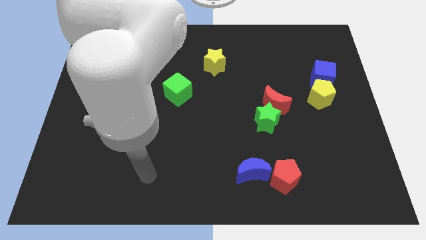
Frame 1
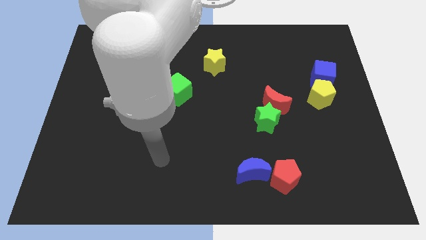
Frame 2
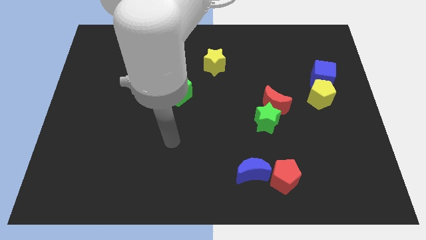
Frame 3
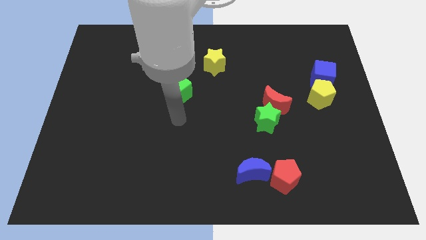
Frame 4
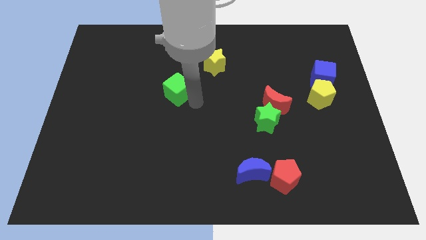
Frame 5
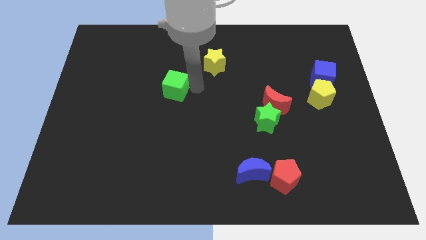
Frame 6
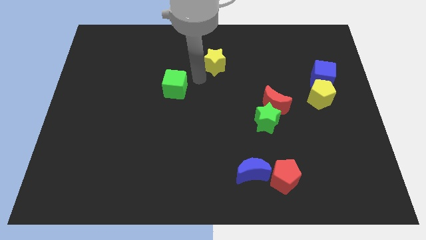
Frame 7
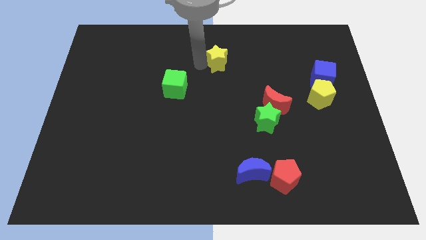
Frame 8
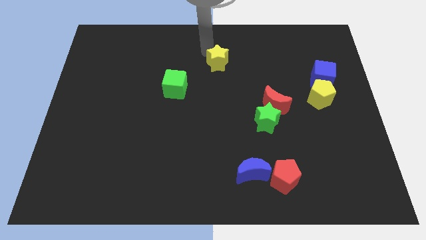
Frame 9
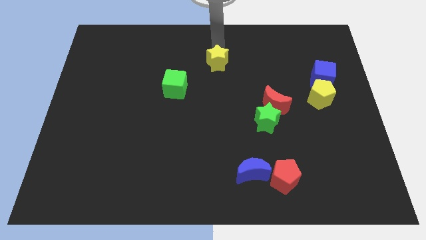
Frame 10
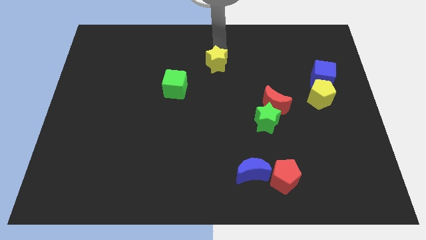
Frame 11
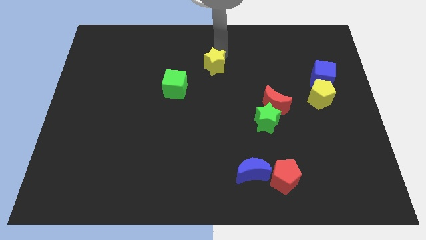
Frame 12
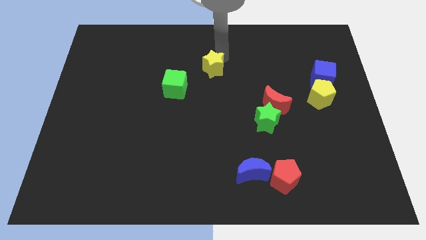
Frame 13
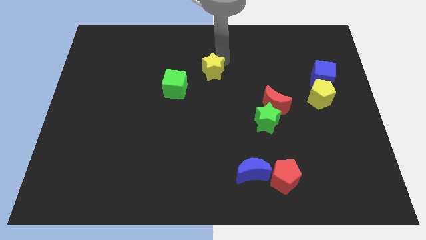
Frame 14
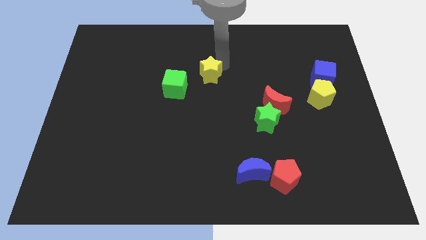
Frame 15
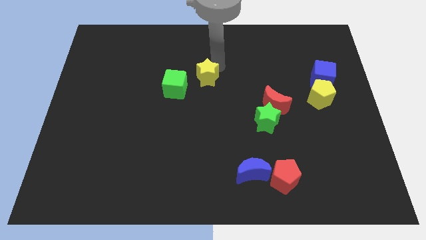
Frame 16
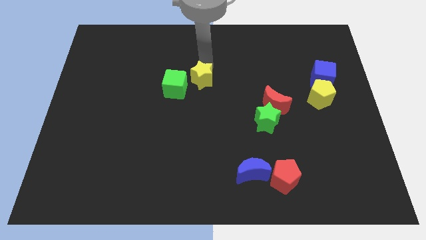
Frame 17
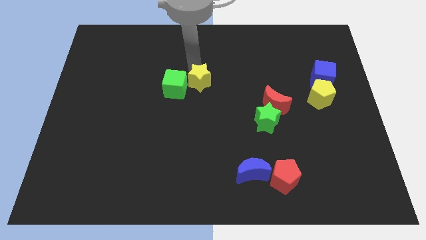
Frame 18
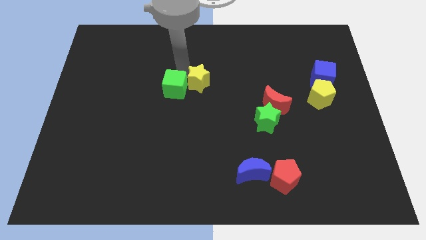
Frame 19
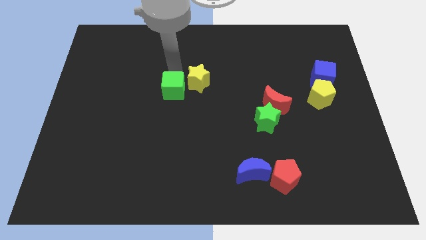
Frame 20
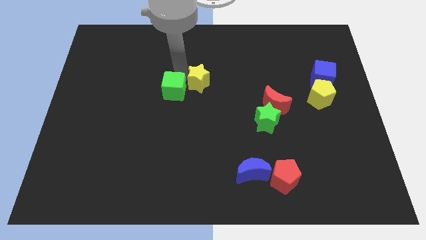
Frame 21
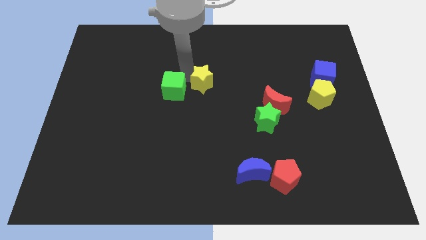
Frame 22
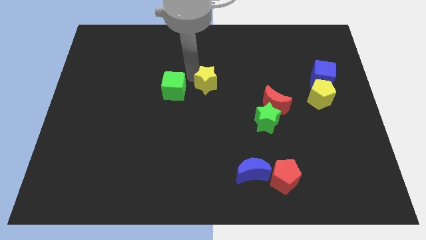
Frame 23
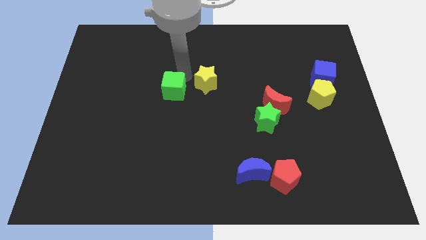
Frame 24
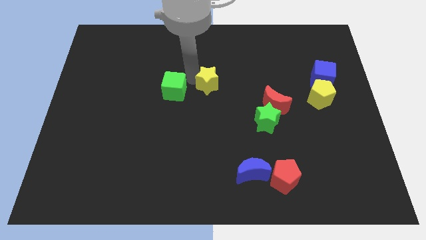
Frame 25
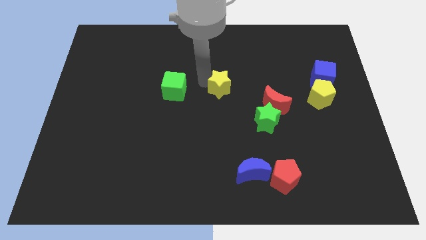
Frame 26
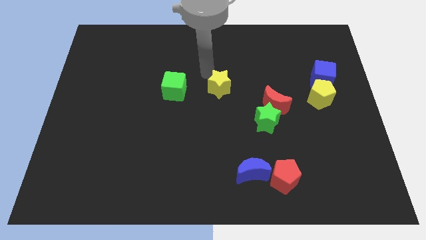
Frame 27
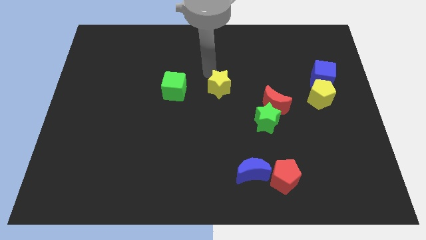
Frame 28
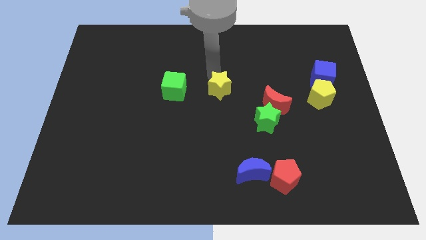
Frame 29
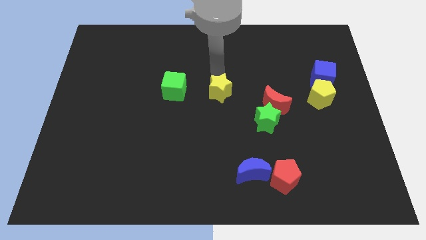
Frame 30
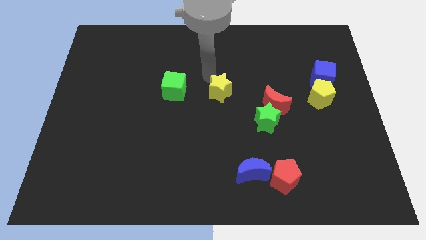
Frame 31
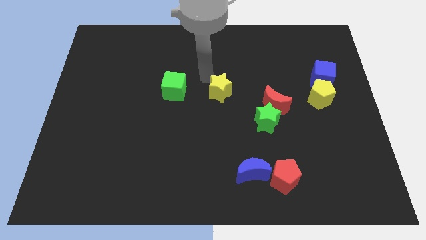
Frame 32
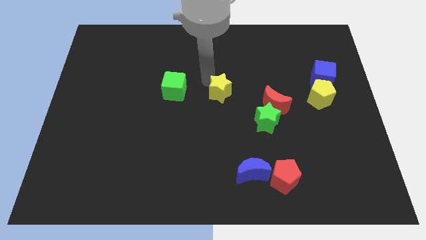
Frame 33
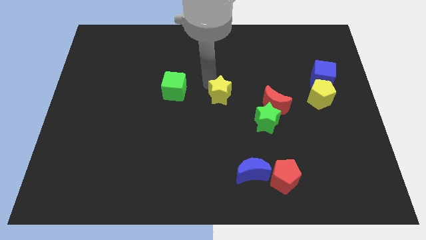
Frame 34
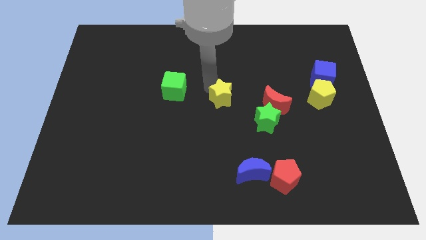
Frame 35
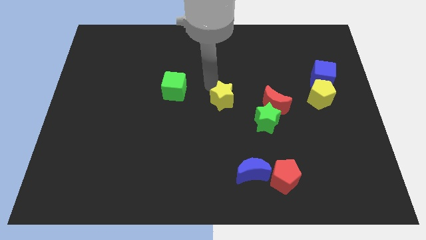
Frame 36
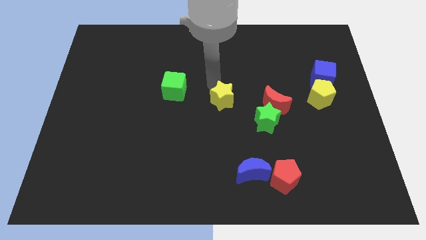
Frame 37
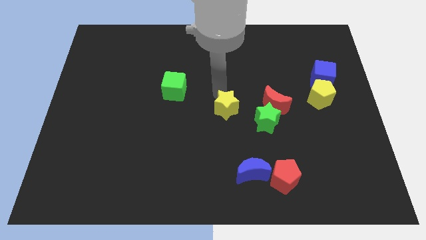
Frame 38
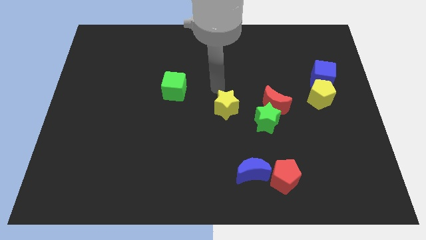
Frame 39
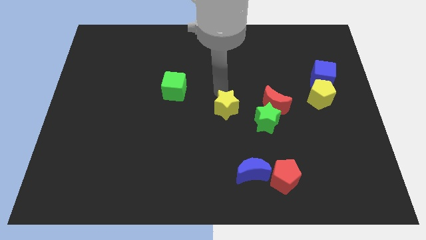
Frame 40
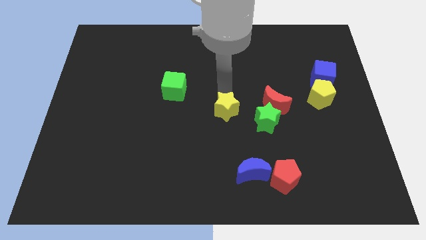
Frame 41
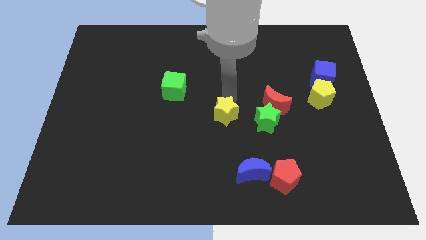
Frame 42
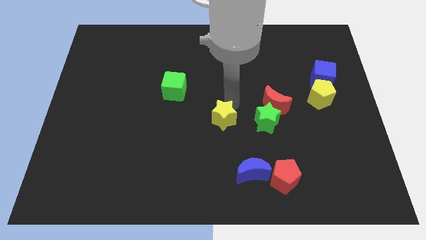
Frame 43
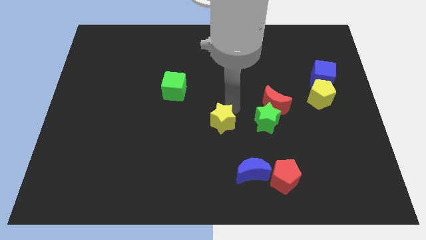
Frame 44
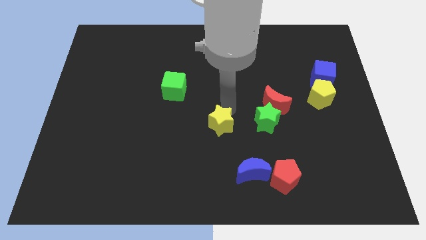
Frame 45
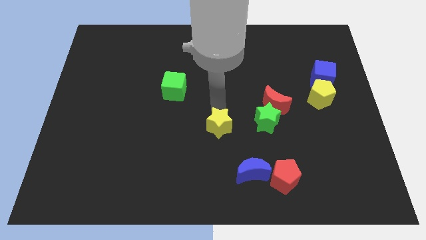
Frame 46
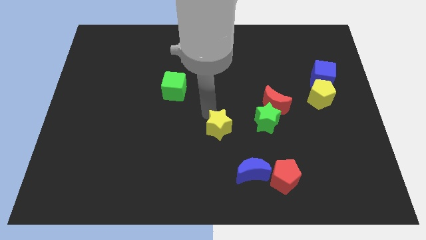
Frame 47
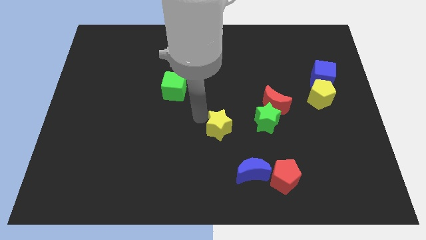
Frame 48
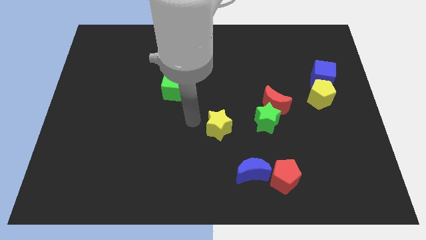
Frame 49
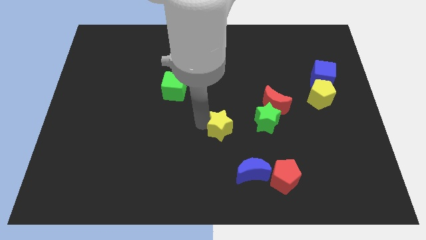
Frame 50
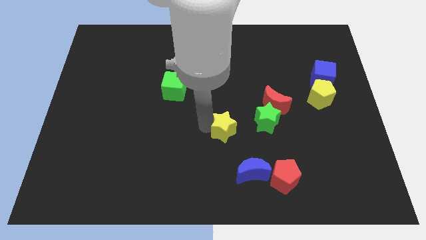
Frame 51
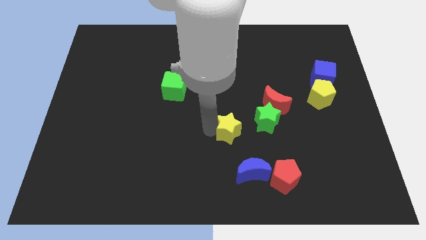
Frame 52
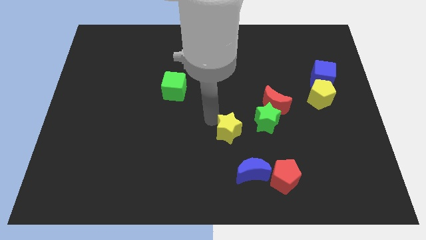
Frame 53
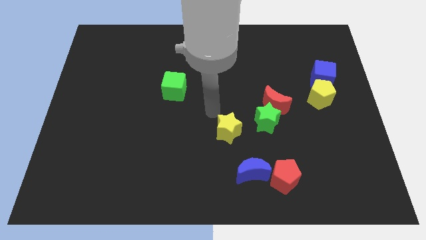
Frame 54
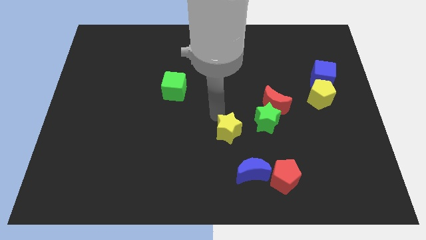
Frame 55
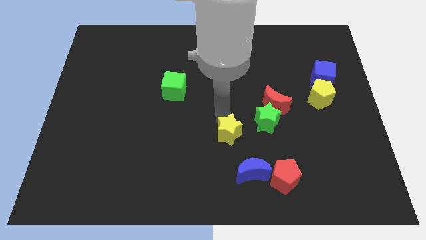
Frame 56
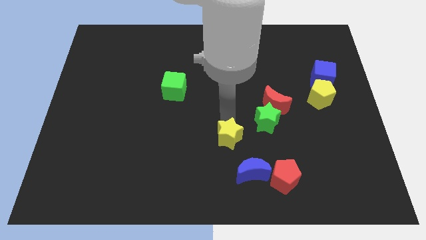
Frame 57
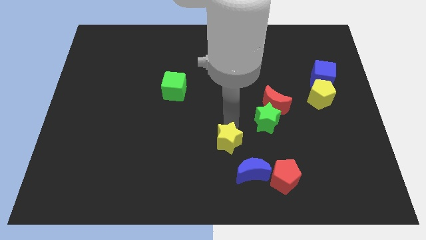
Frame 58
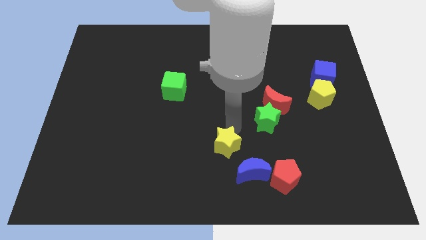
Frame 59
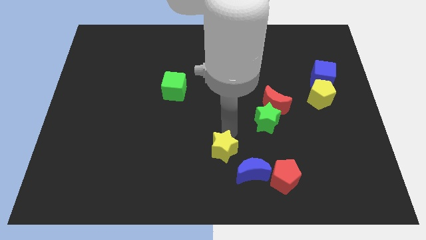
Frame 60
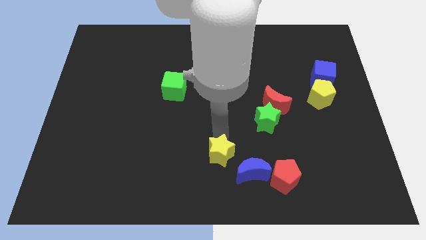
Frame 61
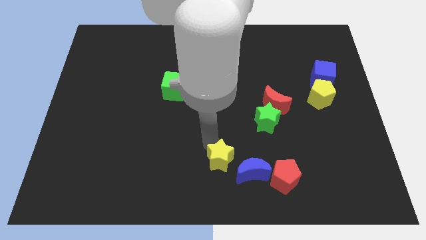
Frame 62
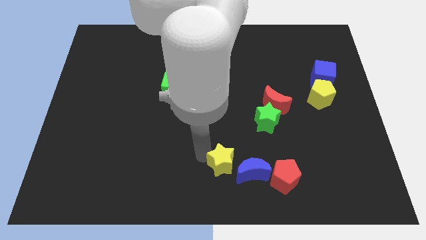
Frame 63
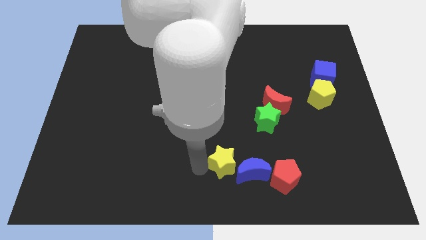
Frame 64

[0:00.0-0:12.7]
put the yellow star to the blue moon

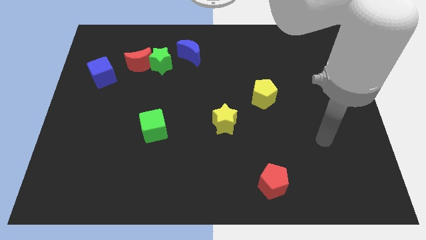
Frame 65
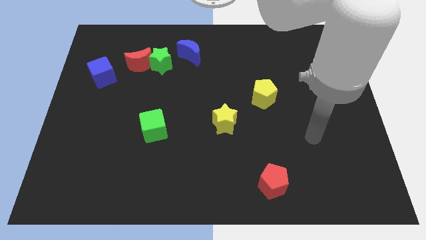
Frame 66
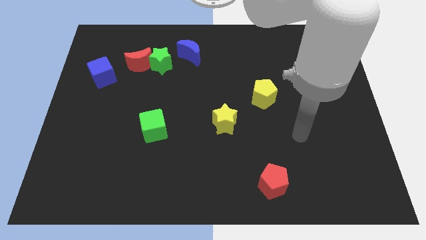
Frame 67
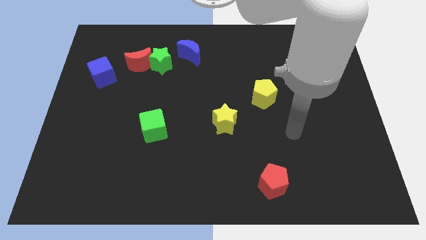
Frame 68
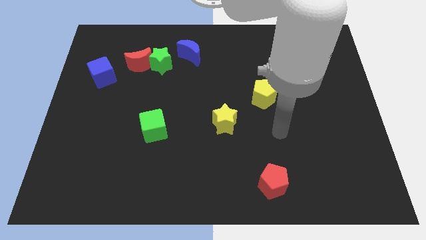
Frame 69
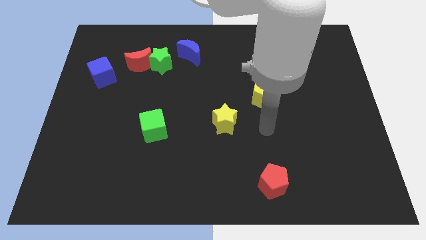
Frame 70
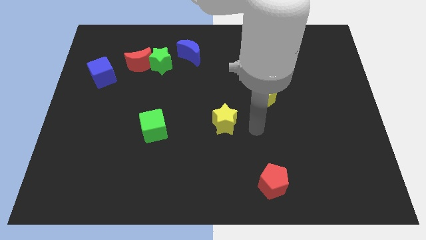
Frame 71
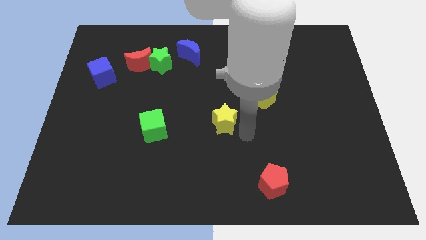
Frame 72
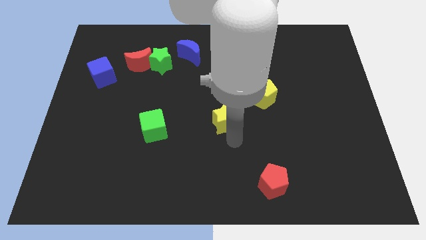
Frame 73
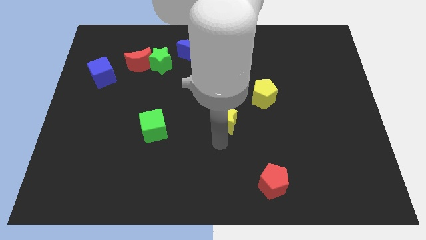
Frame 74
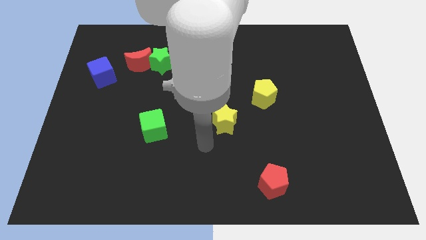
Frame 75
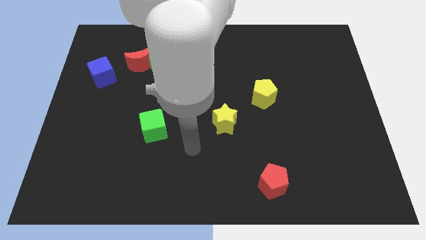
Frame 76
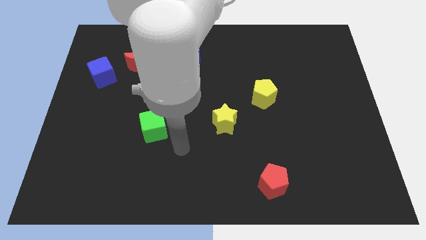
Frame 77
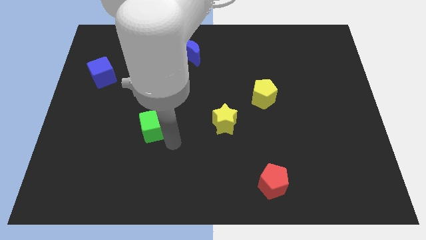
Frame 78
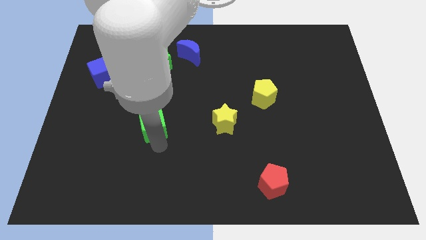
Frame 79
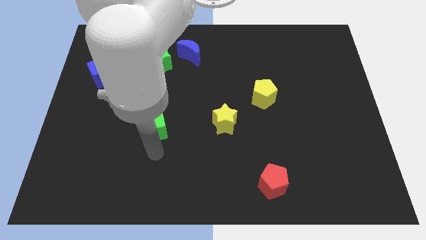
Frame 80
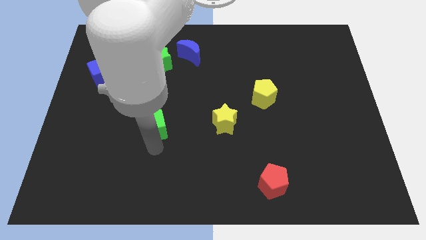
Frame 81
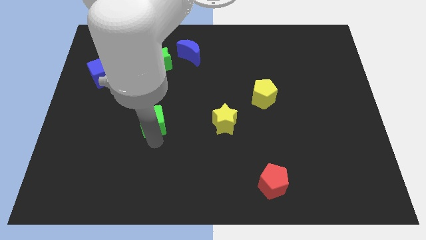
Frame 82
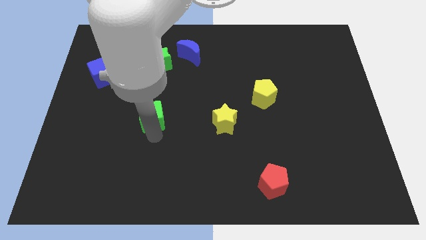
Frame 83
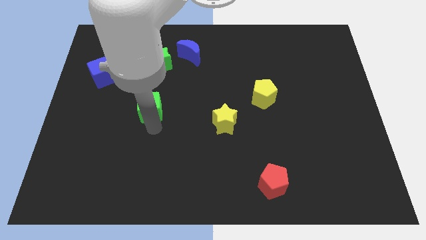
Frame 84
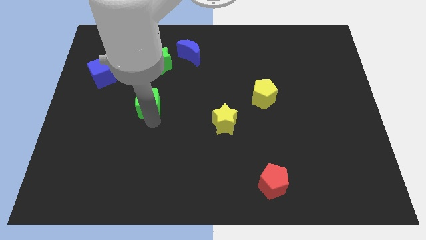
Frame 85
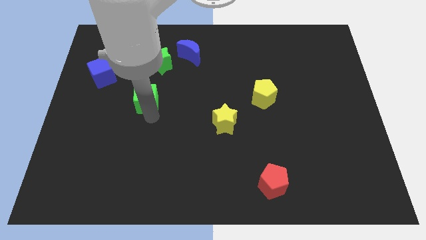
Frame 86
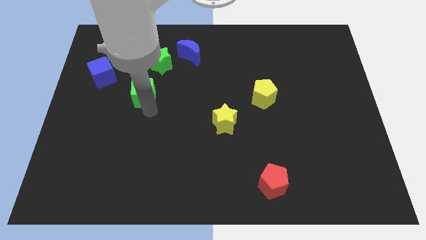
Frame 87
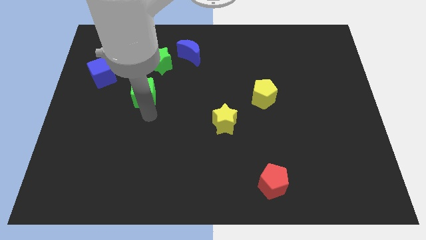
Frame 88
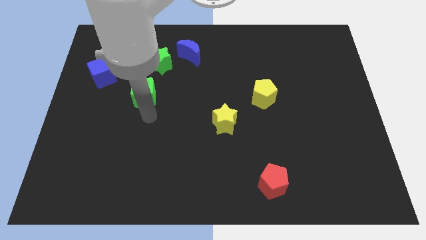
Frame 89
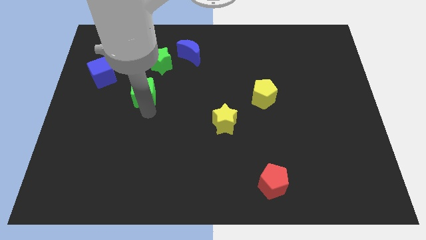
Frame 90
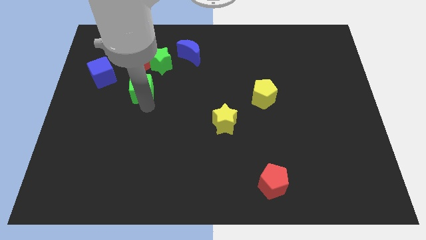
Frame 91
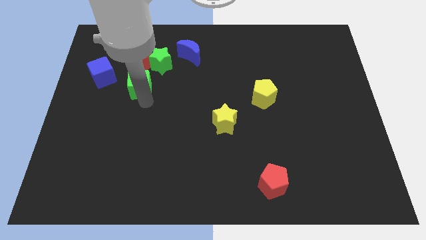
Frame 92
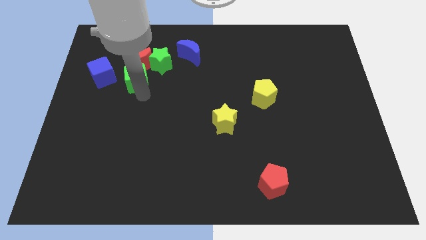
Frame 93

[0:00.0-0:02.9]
slide the green cube towards the red moon
